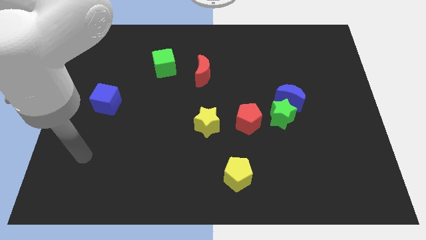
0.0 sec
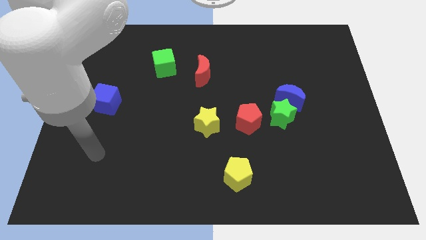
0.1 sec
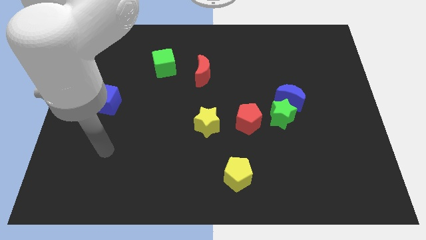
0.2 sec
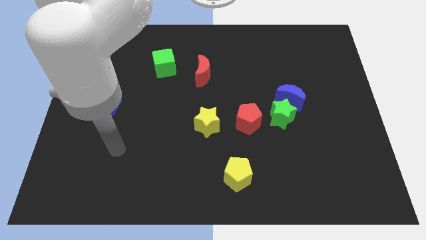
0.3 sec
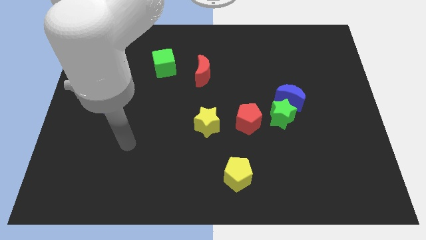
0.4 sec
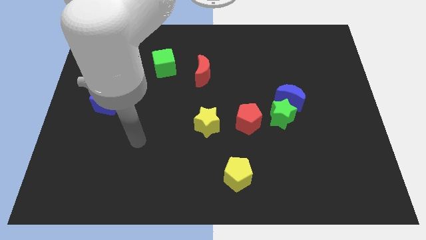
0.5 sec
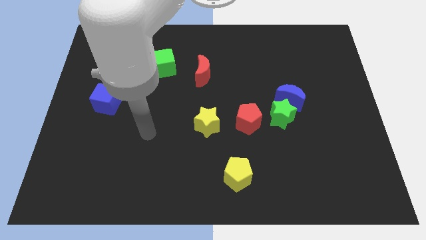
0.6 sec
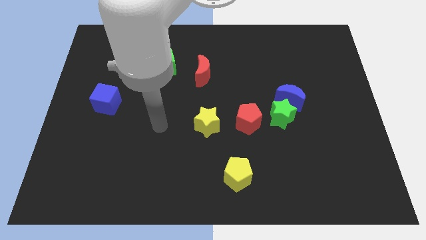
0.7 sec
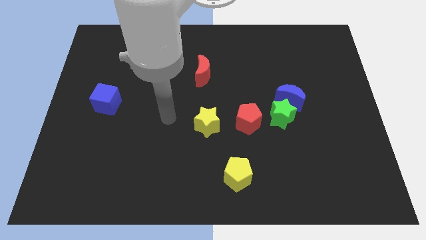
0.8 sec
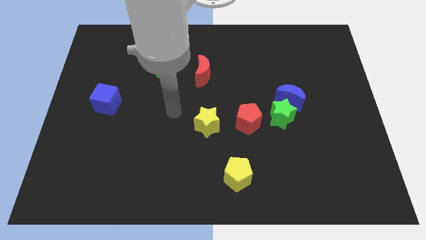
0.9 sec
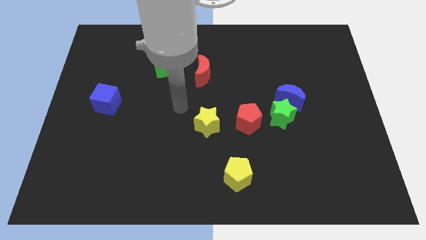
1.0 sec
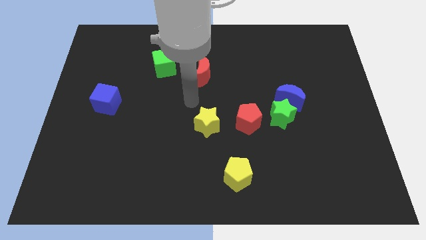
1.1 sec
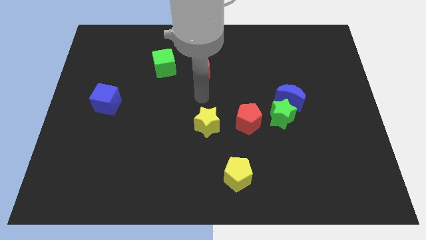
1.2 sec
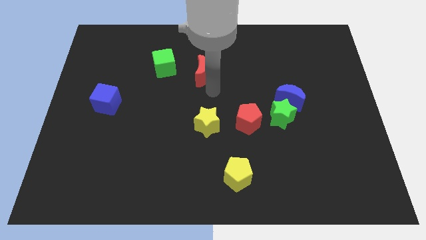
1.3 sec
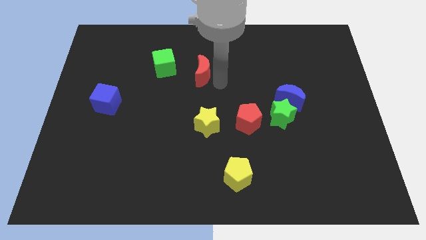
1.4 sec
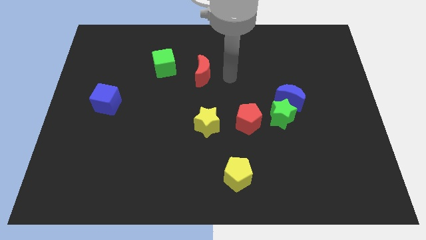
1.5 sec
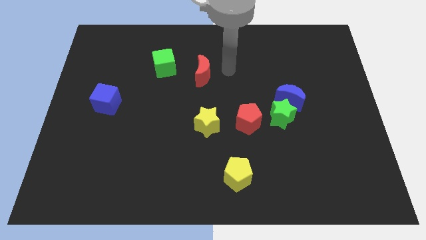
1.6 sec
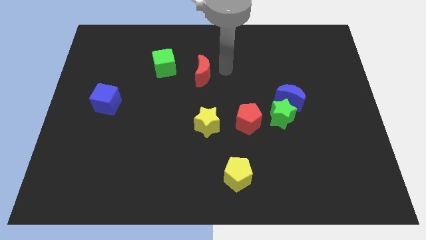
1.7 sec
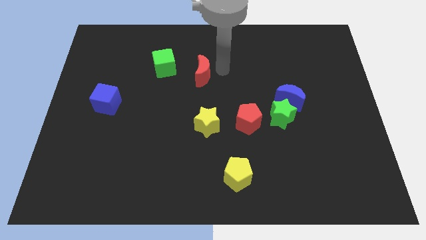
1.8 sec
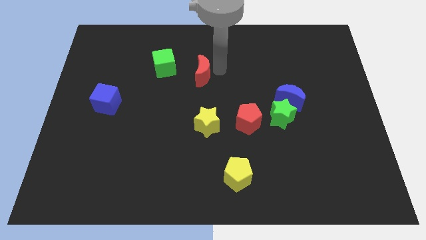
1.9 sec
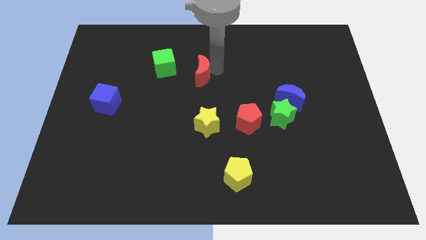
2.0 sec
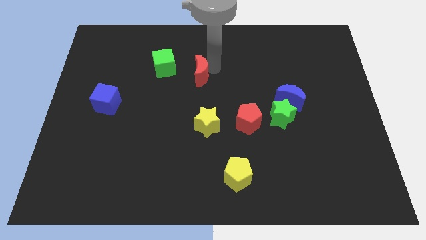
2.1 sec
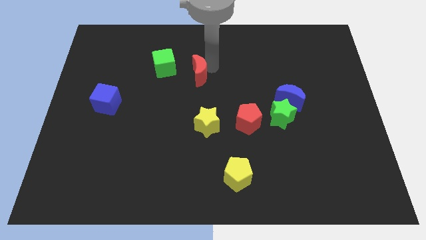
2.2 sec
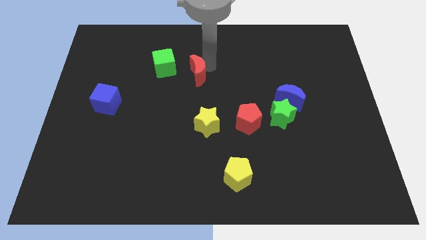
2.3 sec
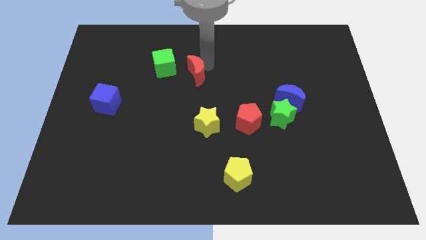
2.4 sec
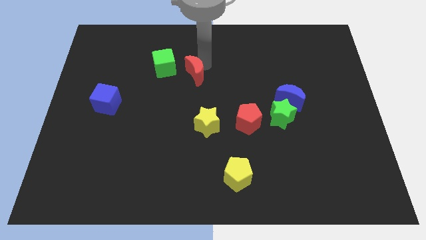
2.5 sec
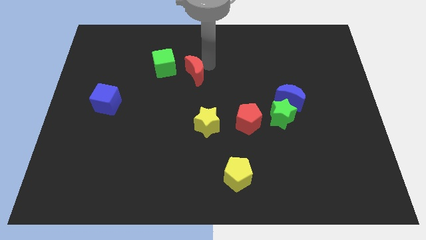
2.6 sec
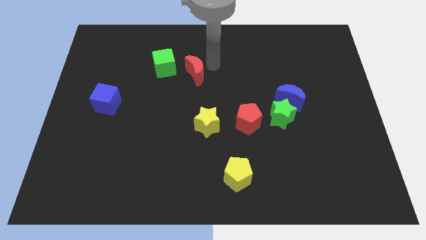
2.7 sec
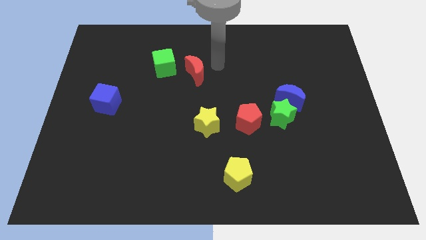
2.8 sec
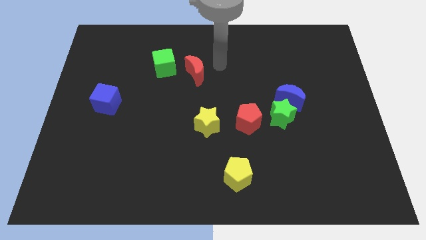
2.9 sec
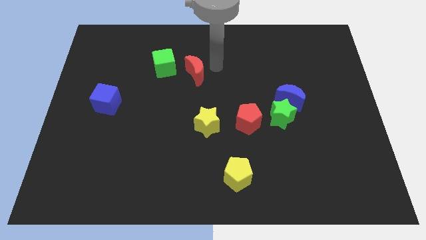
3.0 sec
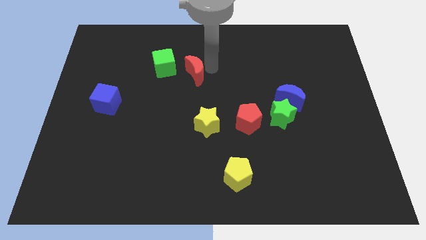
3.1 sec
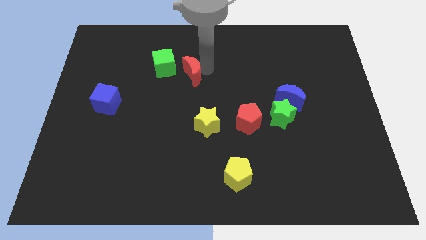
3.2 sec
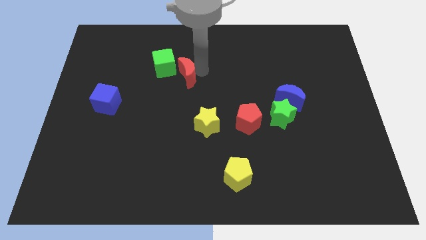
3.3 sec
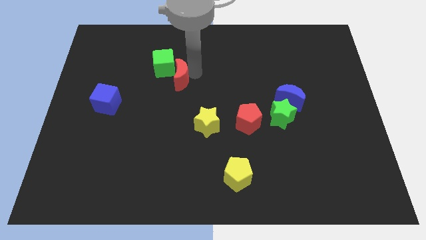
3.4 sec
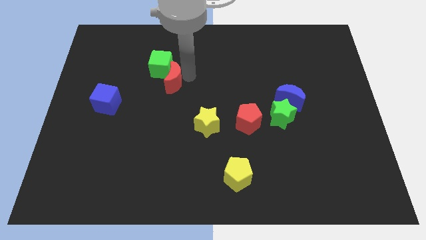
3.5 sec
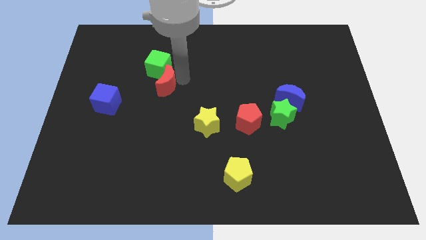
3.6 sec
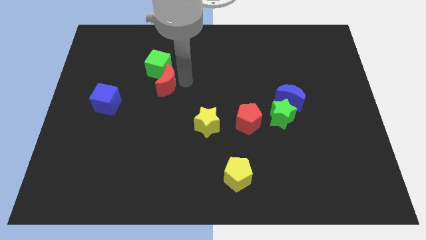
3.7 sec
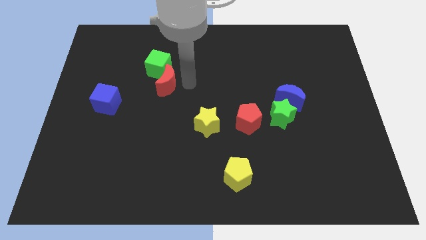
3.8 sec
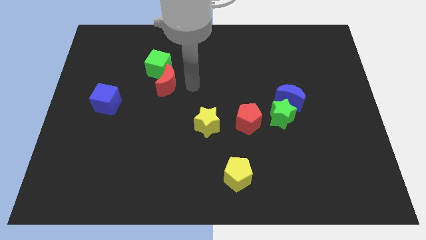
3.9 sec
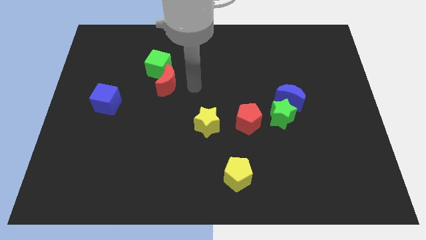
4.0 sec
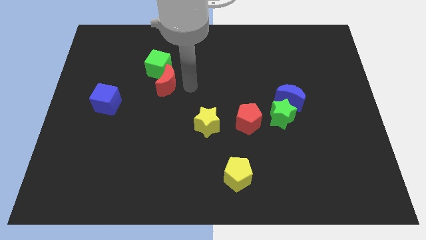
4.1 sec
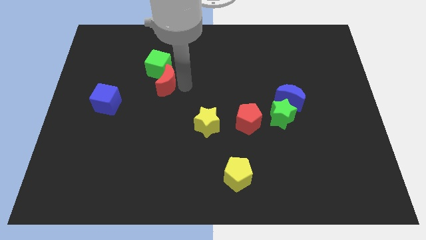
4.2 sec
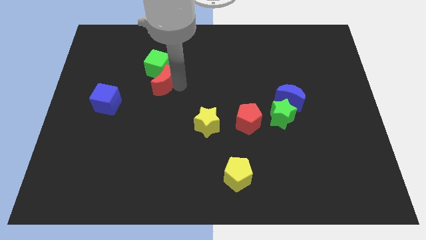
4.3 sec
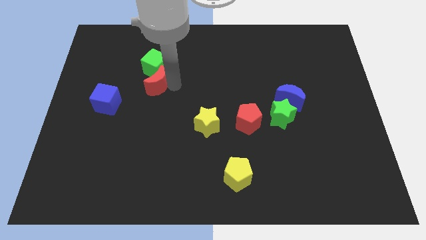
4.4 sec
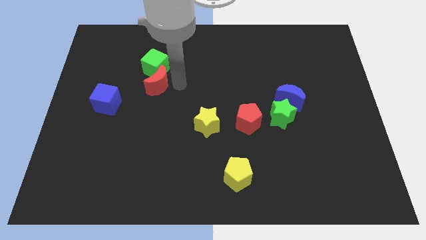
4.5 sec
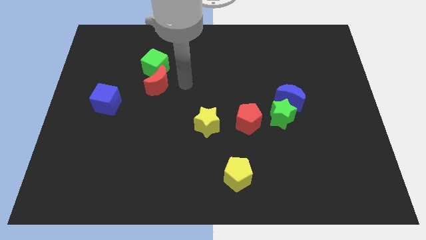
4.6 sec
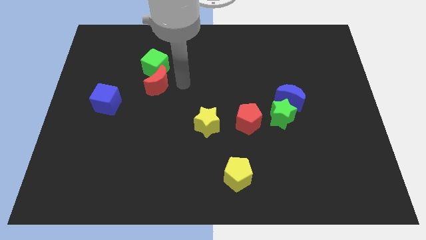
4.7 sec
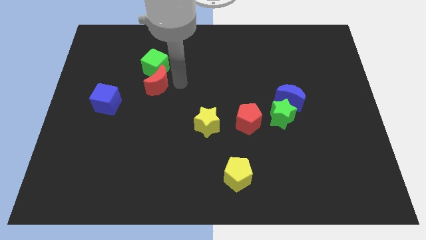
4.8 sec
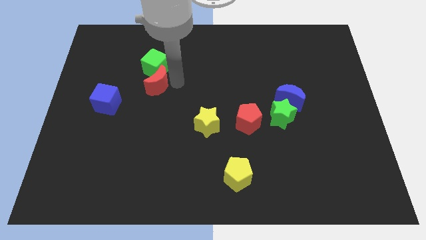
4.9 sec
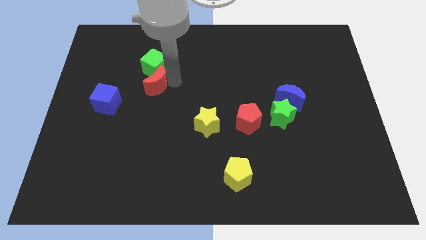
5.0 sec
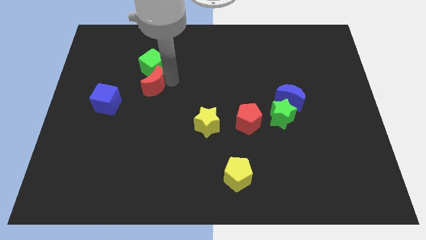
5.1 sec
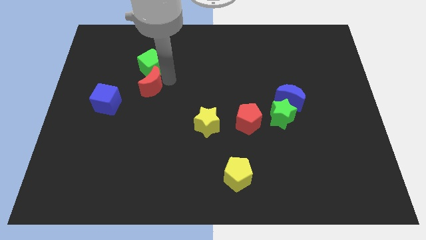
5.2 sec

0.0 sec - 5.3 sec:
put the red moon to the top right side of the blue cube

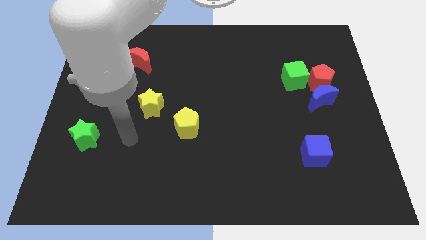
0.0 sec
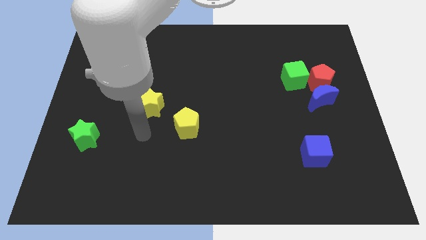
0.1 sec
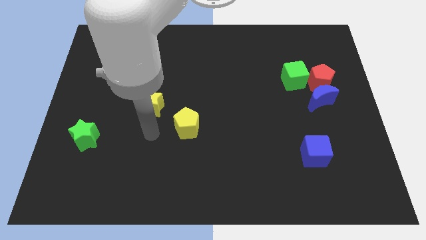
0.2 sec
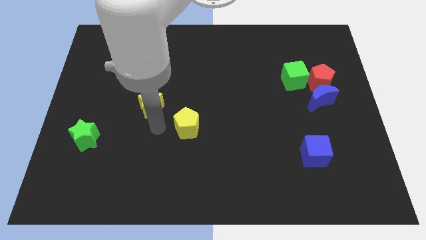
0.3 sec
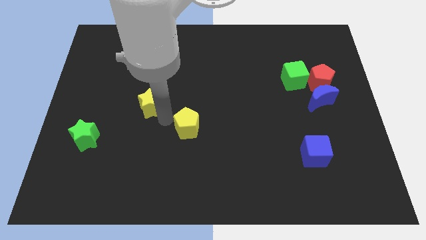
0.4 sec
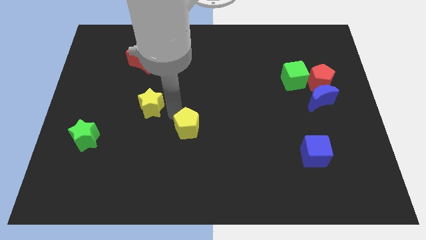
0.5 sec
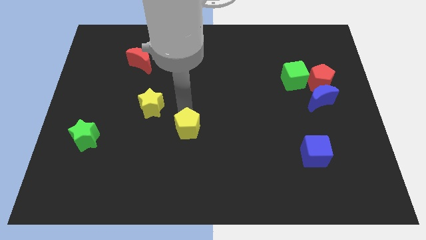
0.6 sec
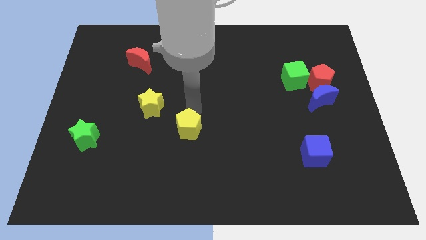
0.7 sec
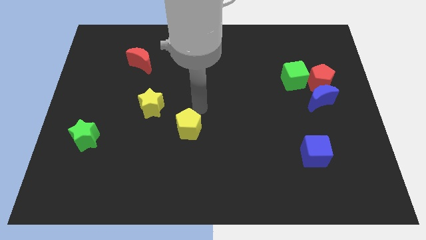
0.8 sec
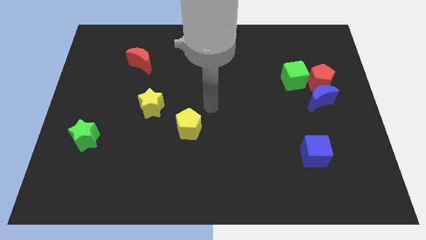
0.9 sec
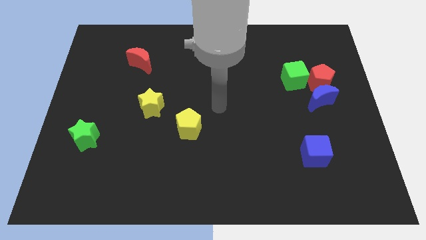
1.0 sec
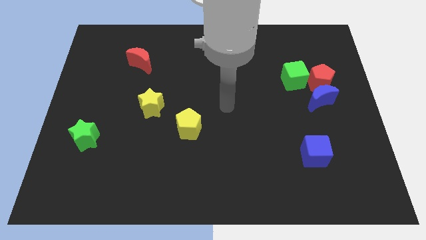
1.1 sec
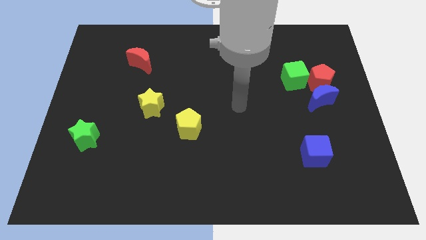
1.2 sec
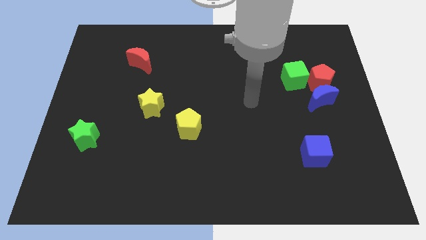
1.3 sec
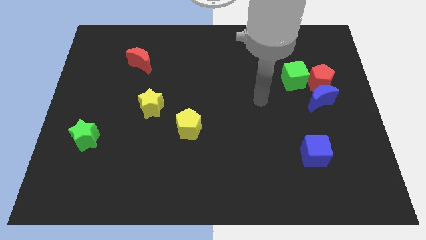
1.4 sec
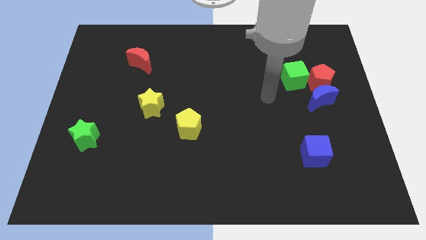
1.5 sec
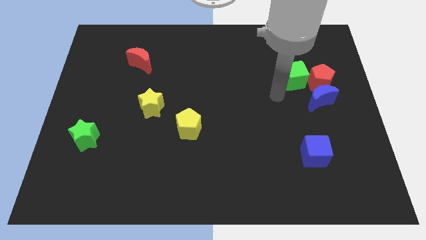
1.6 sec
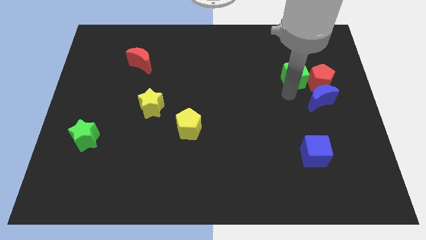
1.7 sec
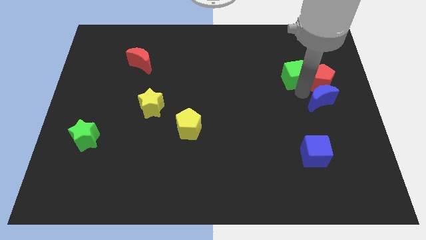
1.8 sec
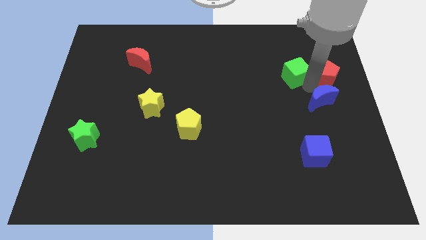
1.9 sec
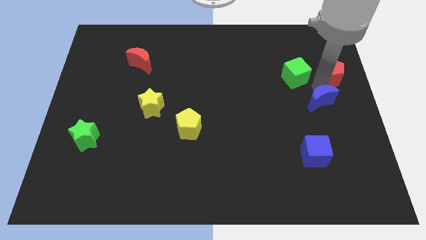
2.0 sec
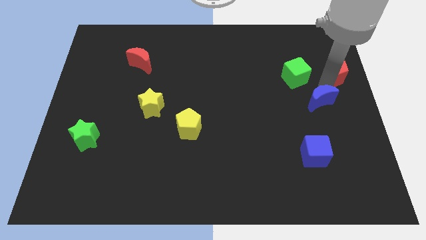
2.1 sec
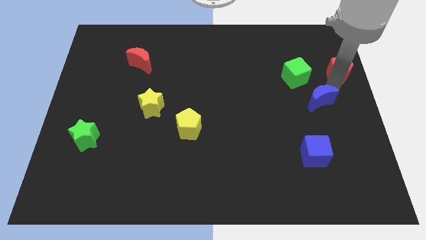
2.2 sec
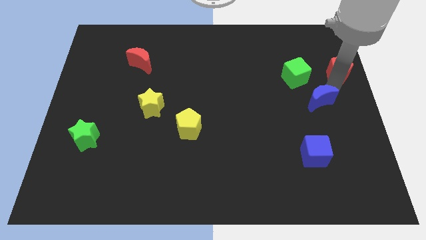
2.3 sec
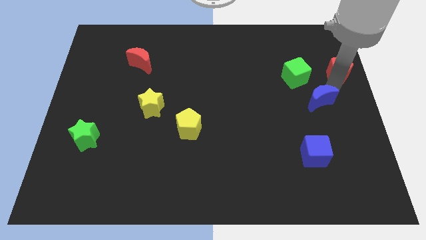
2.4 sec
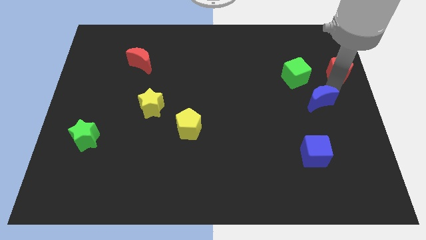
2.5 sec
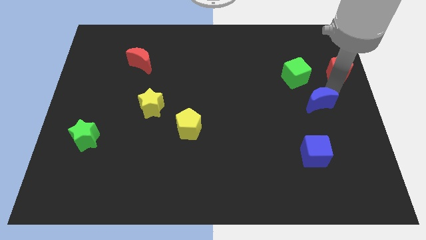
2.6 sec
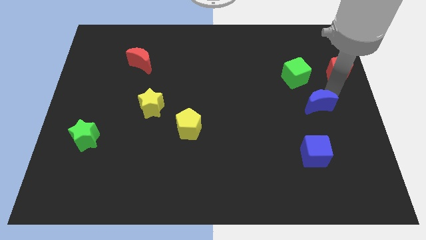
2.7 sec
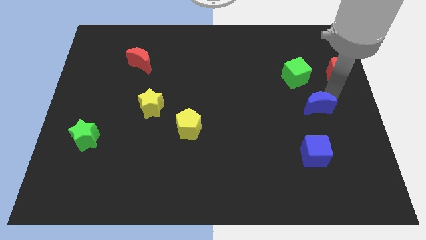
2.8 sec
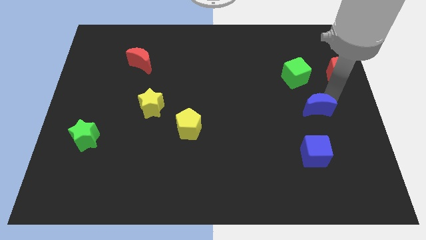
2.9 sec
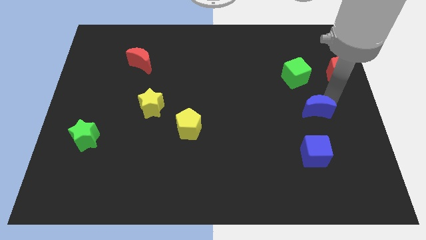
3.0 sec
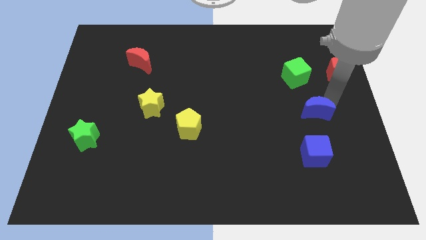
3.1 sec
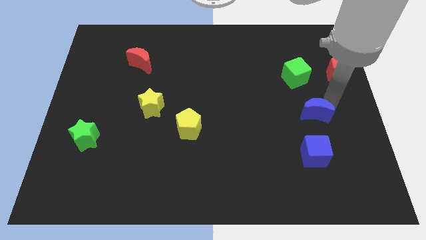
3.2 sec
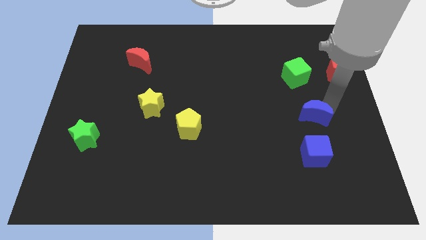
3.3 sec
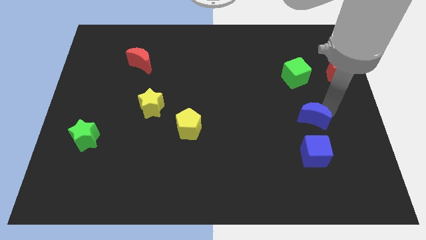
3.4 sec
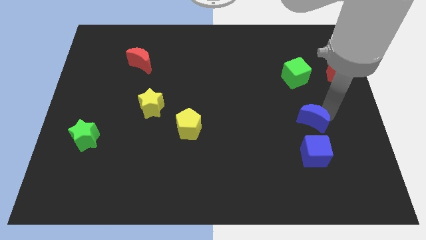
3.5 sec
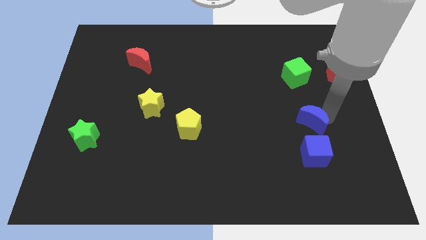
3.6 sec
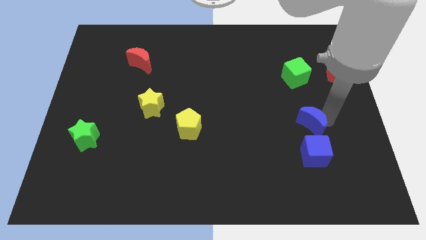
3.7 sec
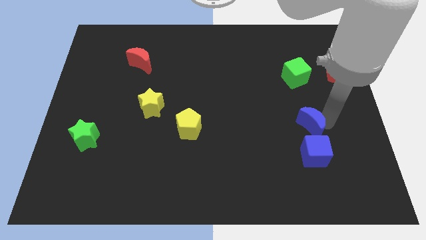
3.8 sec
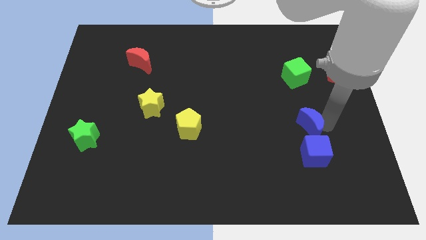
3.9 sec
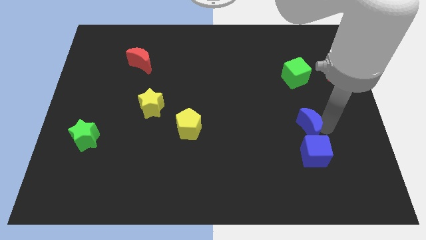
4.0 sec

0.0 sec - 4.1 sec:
move the blue moon to the top left side of the blue cube
